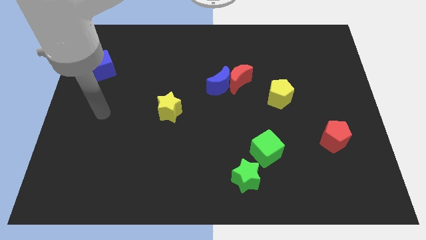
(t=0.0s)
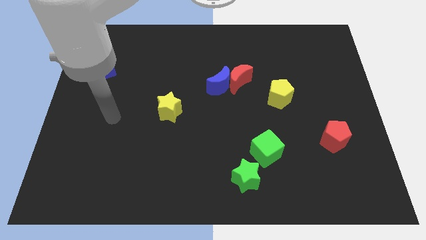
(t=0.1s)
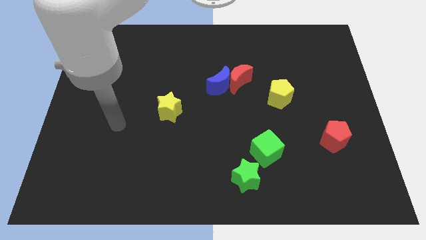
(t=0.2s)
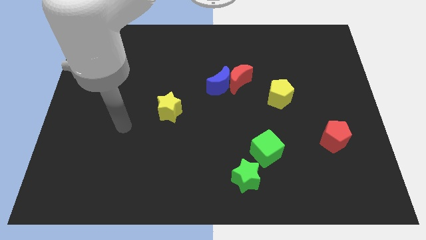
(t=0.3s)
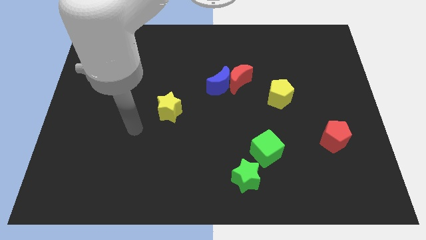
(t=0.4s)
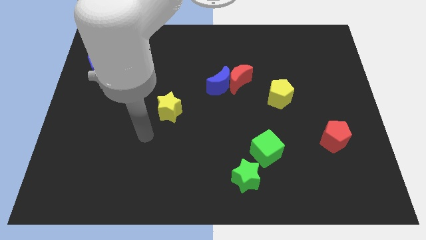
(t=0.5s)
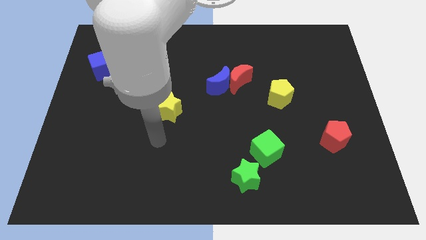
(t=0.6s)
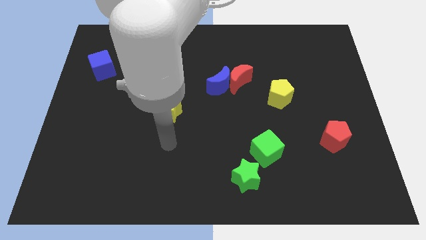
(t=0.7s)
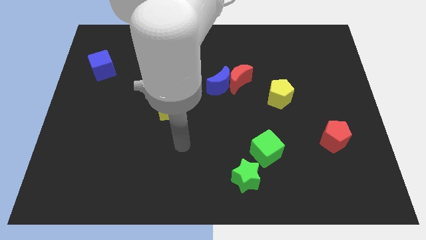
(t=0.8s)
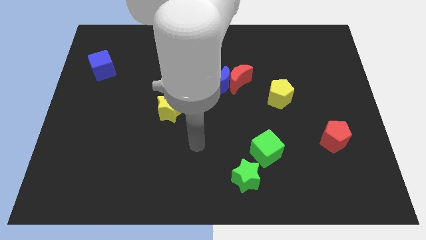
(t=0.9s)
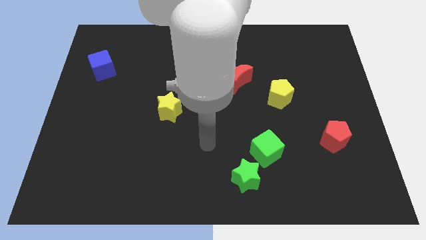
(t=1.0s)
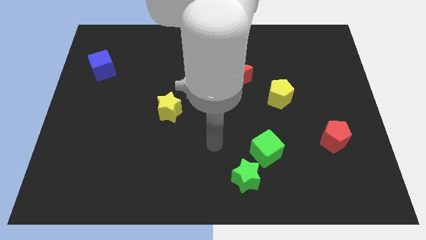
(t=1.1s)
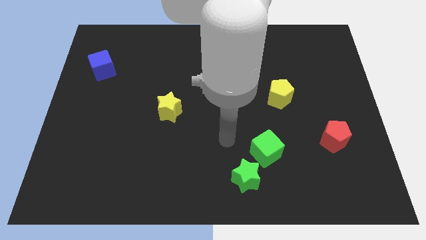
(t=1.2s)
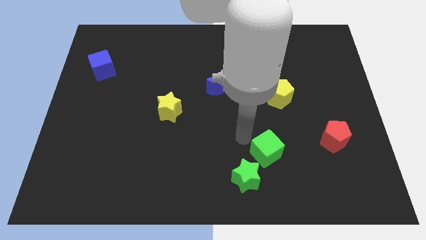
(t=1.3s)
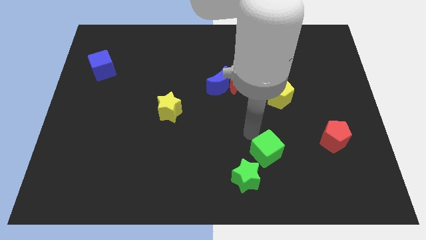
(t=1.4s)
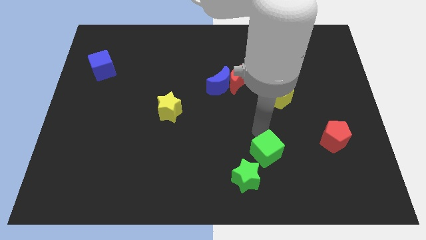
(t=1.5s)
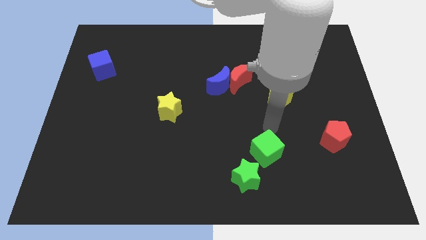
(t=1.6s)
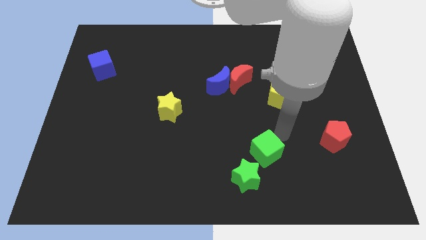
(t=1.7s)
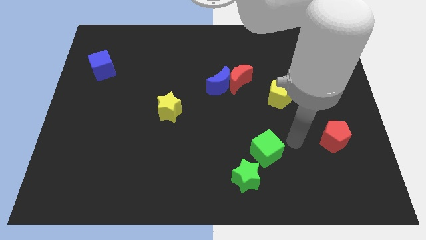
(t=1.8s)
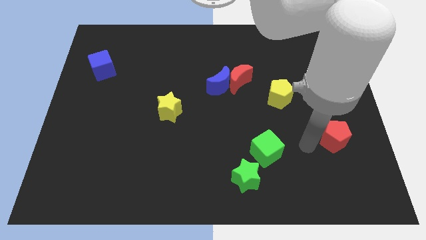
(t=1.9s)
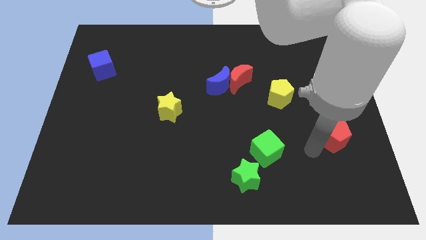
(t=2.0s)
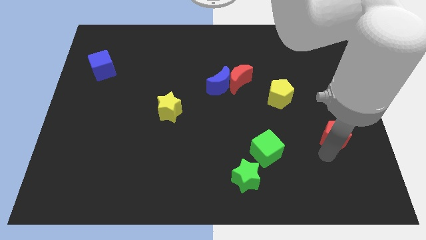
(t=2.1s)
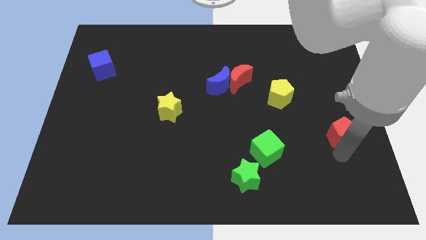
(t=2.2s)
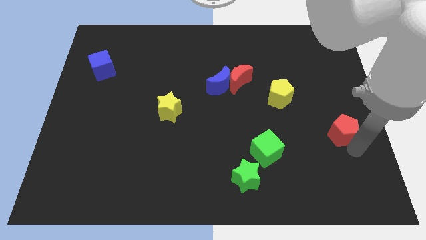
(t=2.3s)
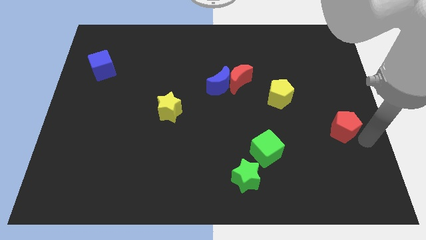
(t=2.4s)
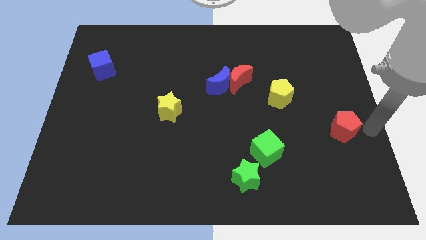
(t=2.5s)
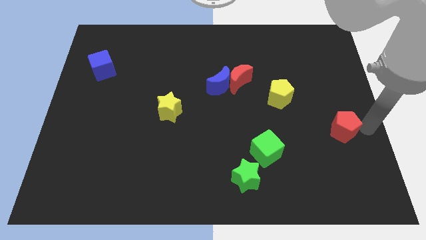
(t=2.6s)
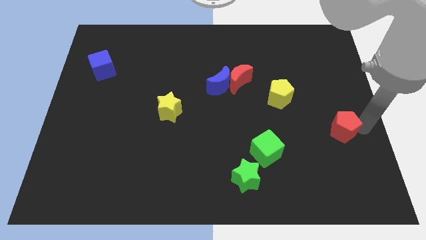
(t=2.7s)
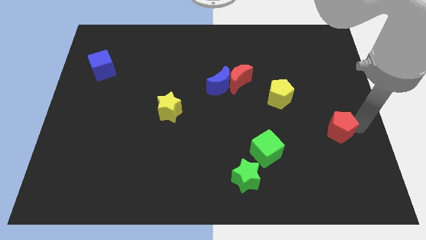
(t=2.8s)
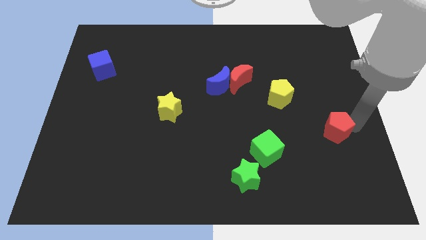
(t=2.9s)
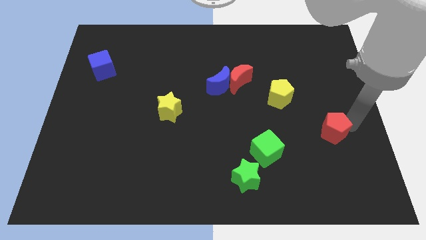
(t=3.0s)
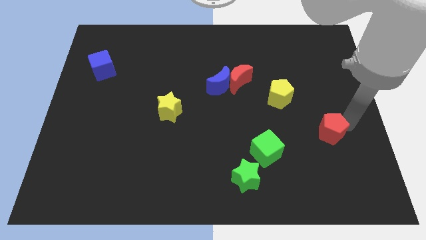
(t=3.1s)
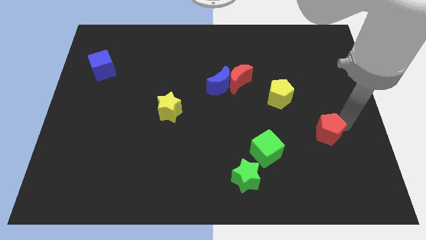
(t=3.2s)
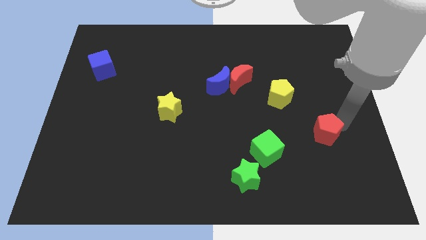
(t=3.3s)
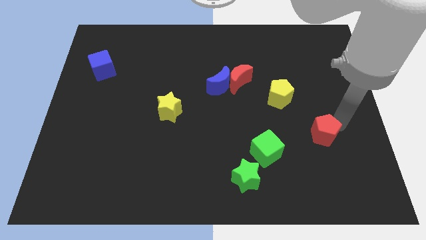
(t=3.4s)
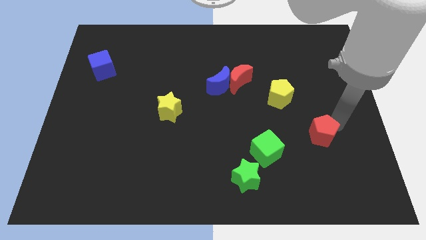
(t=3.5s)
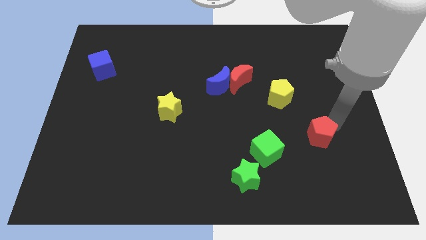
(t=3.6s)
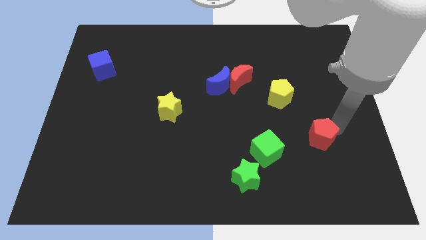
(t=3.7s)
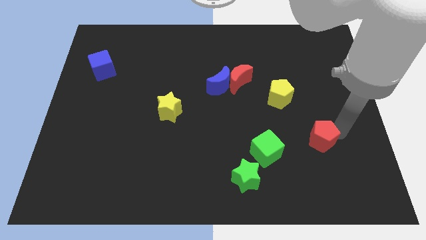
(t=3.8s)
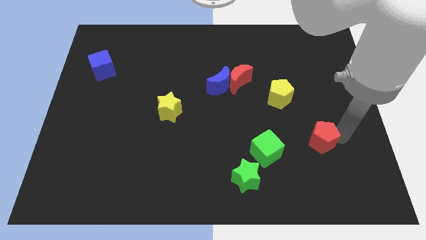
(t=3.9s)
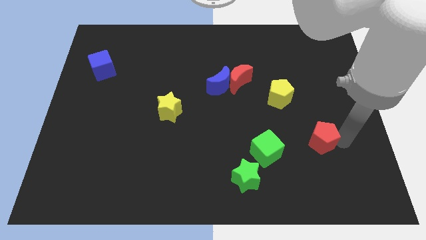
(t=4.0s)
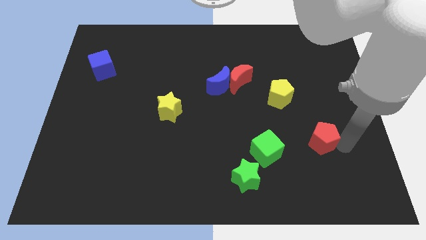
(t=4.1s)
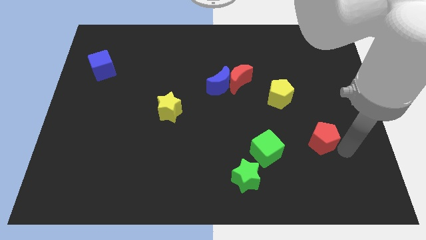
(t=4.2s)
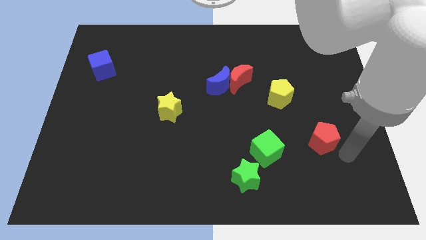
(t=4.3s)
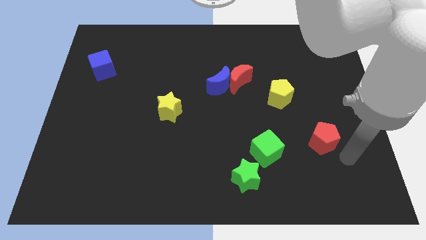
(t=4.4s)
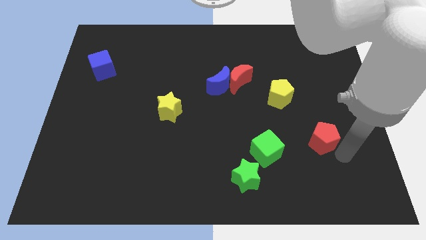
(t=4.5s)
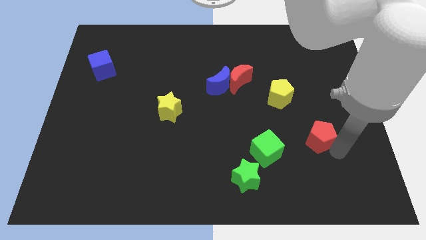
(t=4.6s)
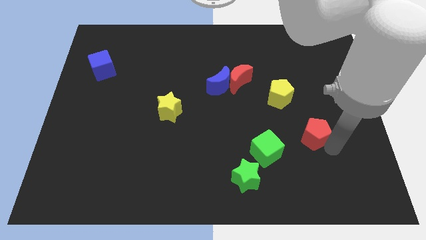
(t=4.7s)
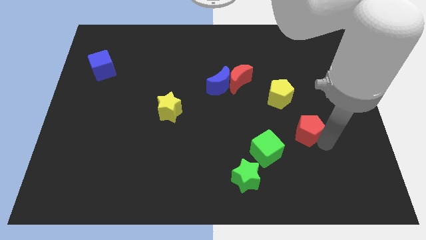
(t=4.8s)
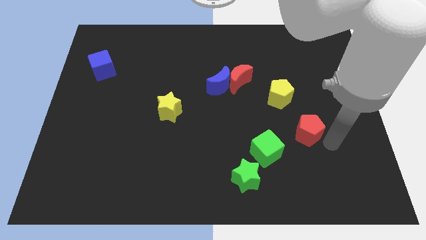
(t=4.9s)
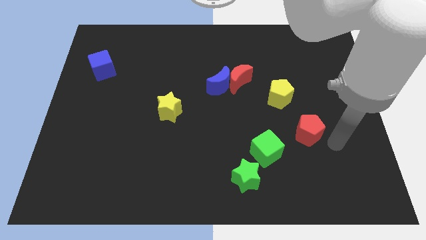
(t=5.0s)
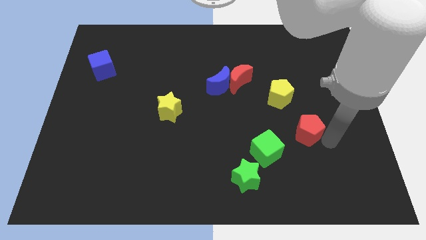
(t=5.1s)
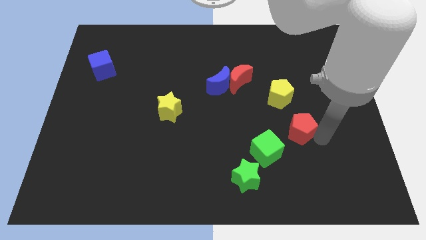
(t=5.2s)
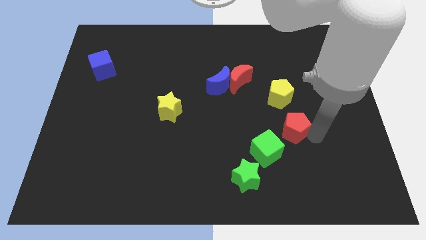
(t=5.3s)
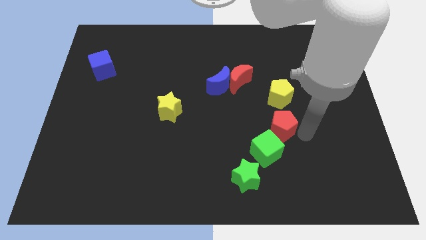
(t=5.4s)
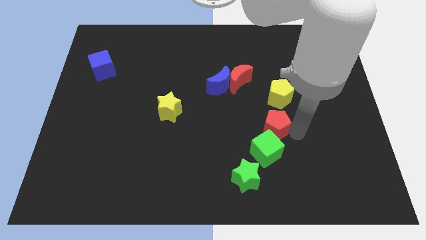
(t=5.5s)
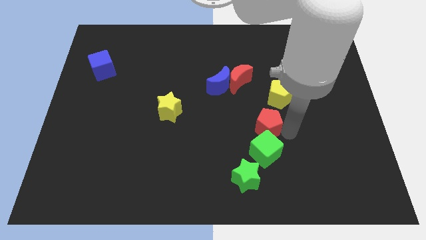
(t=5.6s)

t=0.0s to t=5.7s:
slide the red pentagon to the bottom left of the yellow pentagon

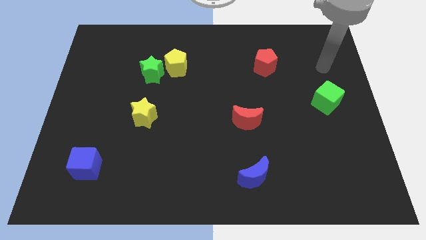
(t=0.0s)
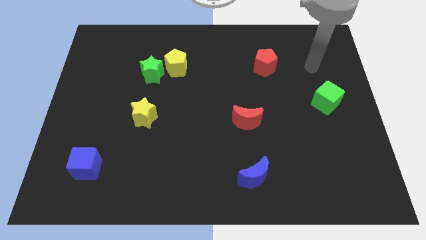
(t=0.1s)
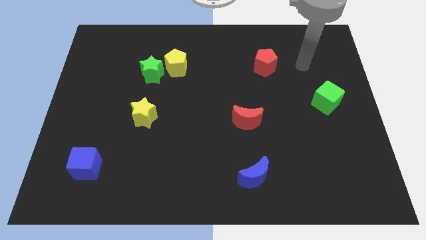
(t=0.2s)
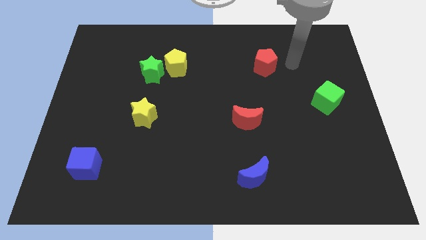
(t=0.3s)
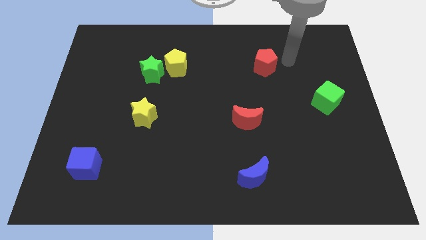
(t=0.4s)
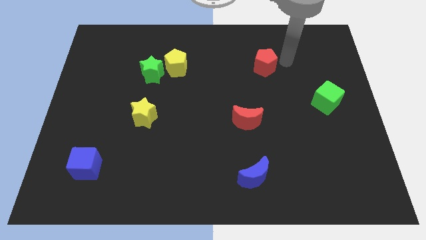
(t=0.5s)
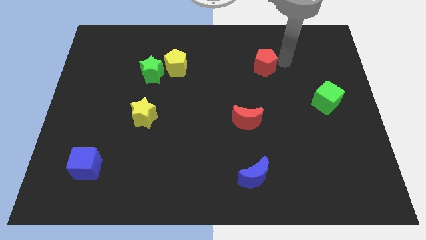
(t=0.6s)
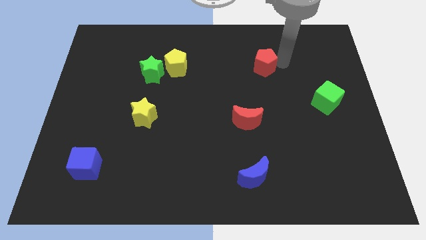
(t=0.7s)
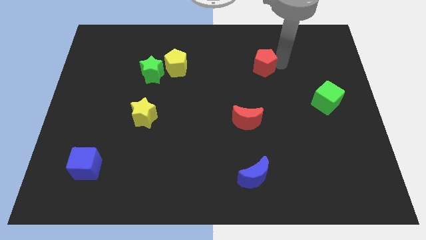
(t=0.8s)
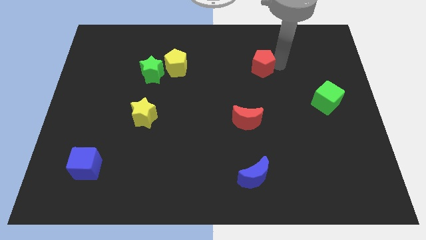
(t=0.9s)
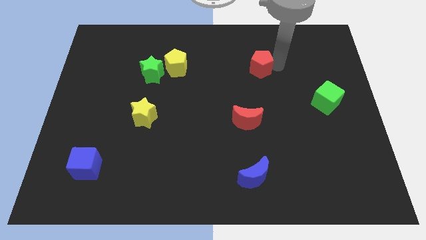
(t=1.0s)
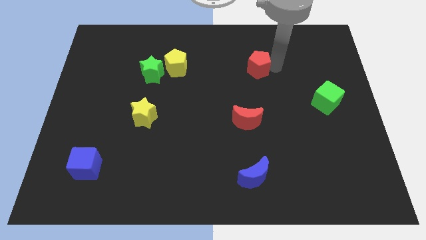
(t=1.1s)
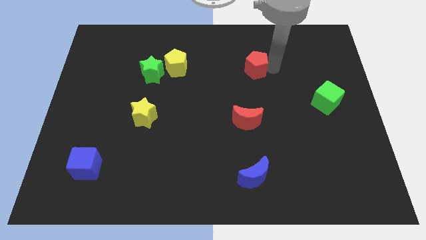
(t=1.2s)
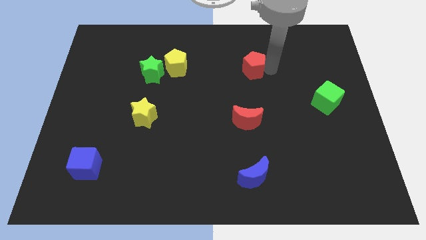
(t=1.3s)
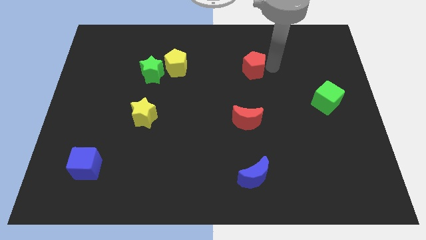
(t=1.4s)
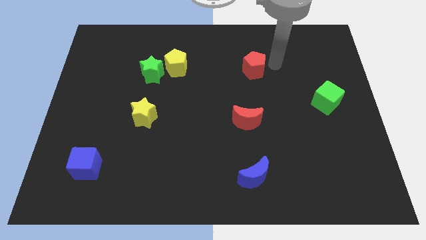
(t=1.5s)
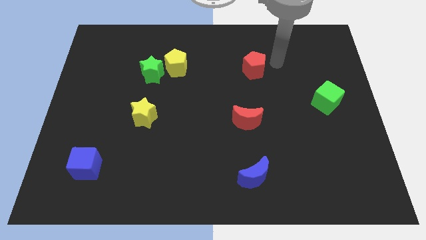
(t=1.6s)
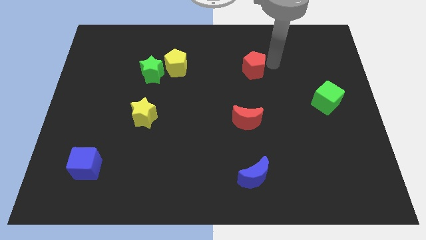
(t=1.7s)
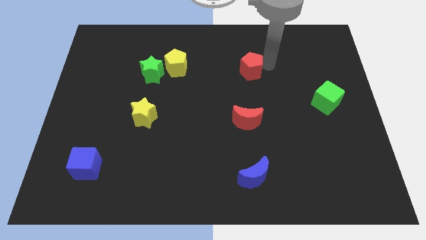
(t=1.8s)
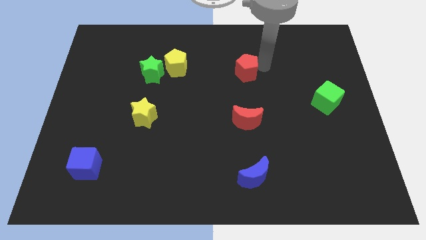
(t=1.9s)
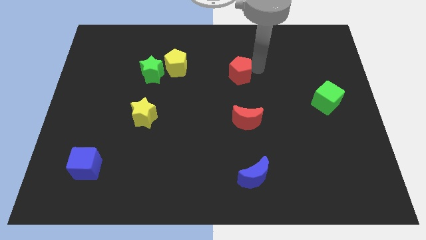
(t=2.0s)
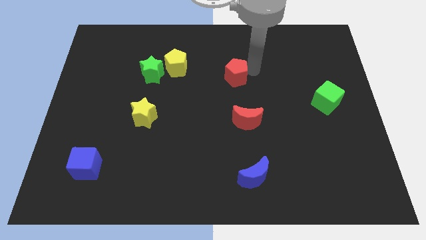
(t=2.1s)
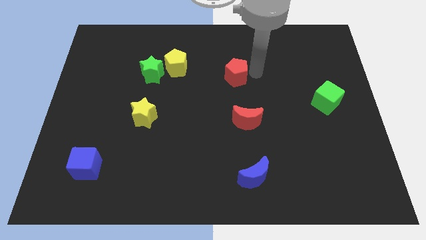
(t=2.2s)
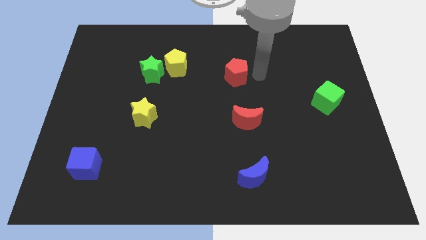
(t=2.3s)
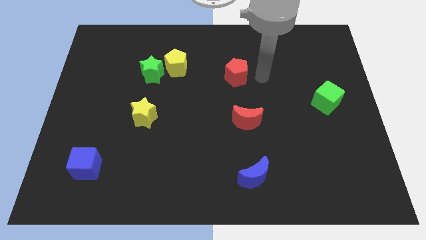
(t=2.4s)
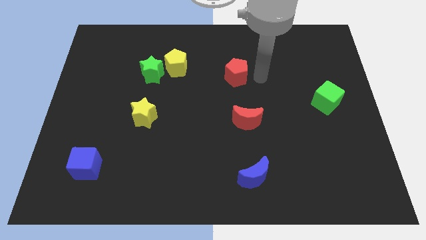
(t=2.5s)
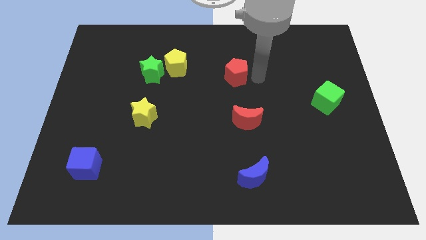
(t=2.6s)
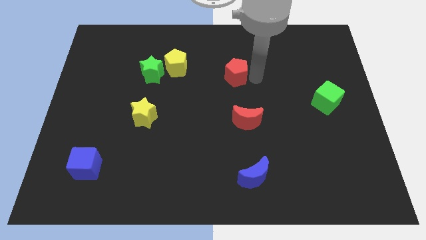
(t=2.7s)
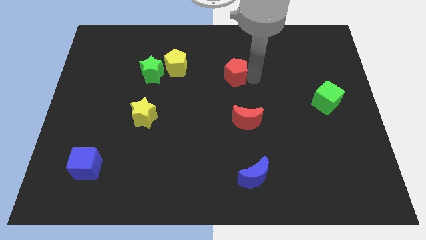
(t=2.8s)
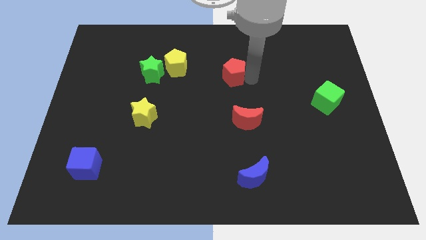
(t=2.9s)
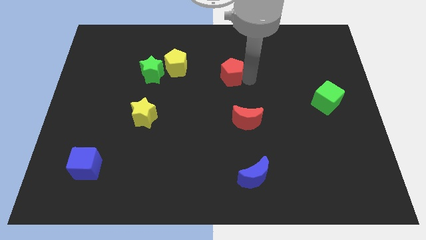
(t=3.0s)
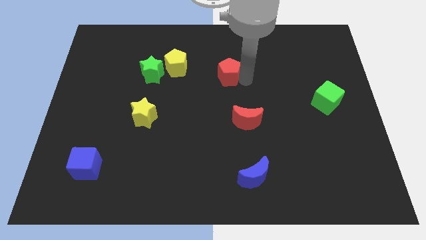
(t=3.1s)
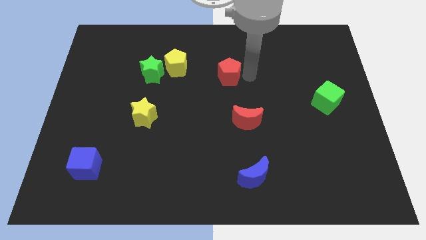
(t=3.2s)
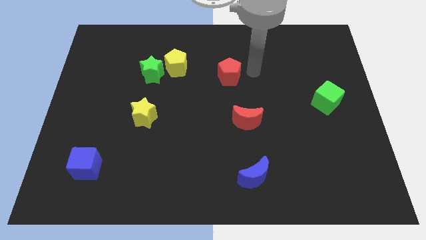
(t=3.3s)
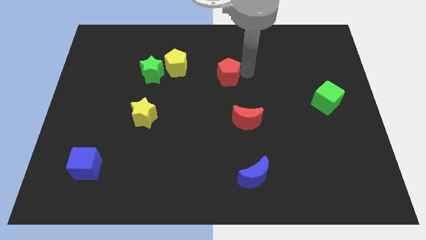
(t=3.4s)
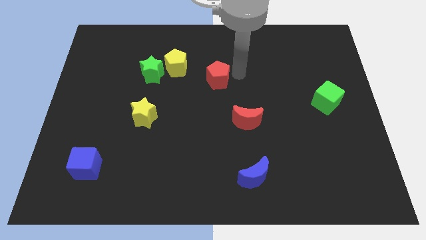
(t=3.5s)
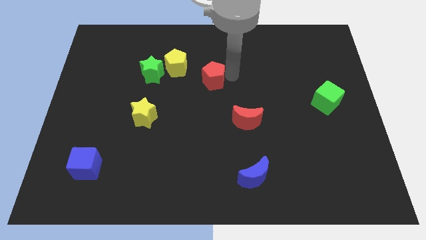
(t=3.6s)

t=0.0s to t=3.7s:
move the red pentagon to the bottom right side of the yellow pentagon
